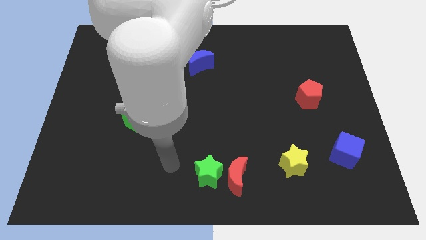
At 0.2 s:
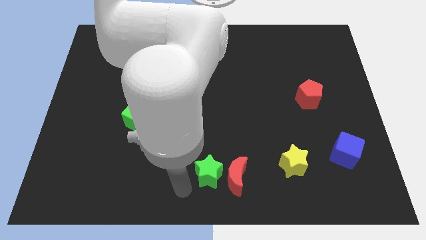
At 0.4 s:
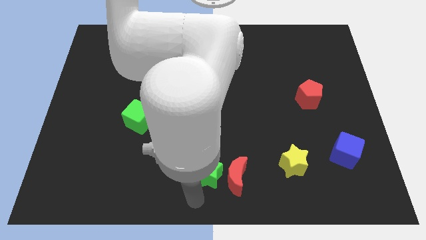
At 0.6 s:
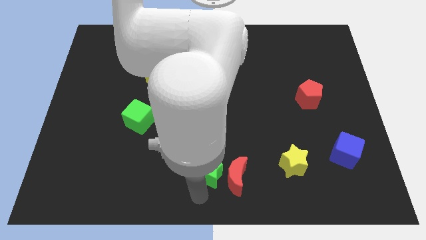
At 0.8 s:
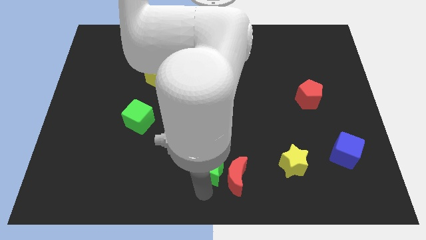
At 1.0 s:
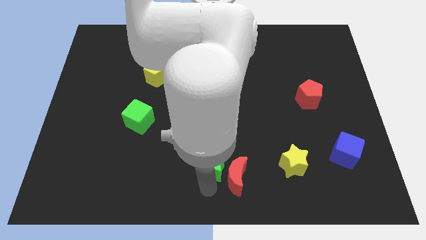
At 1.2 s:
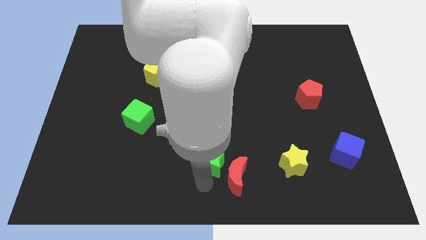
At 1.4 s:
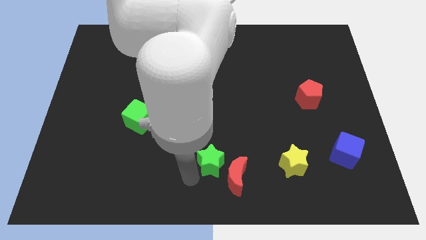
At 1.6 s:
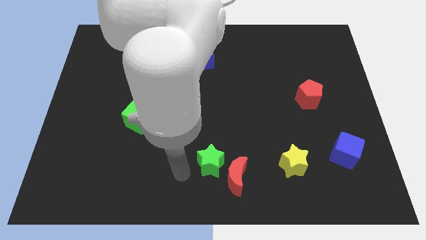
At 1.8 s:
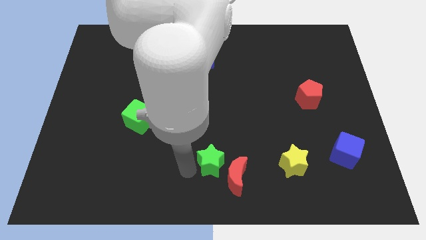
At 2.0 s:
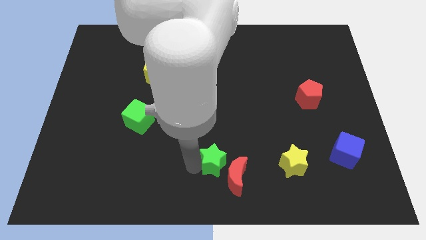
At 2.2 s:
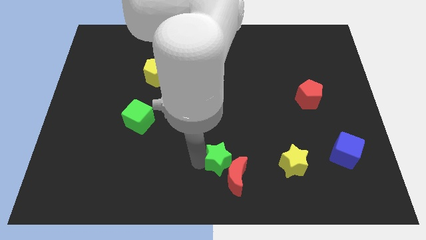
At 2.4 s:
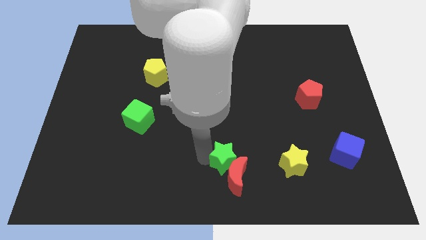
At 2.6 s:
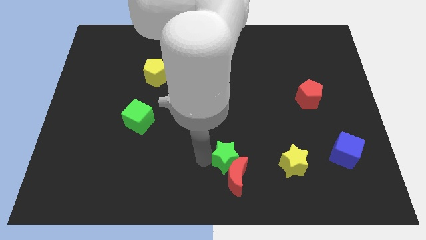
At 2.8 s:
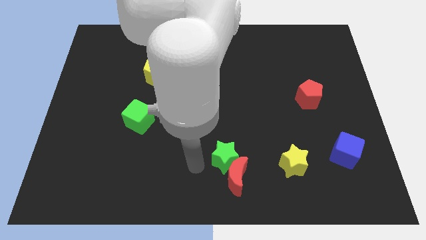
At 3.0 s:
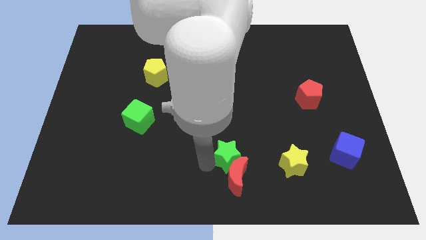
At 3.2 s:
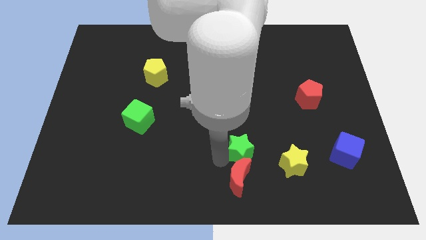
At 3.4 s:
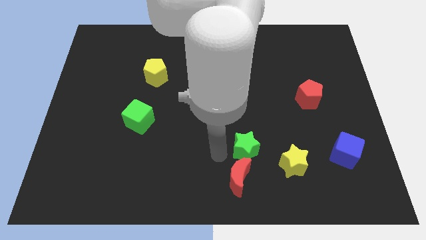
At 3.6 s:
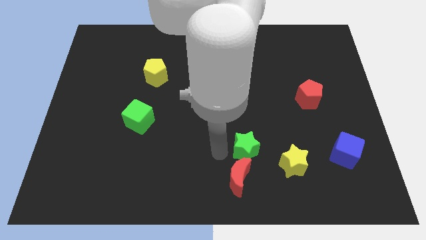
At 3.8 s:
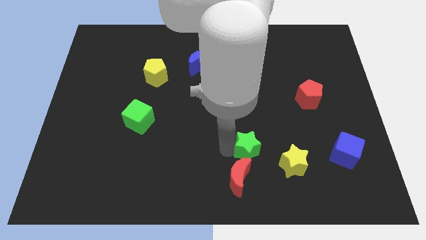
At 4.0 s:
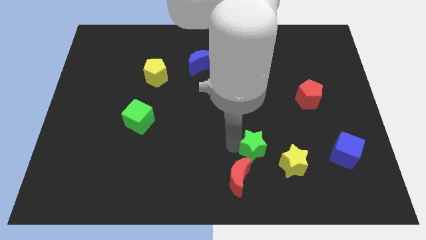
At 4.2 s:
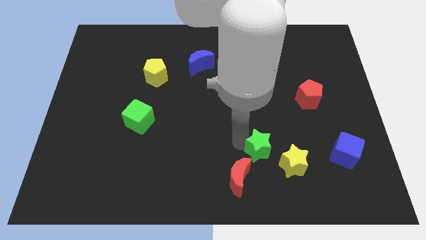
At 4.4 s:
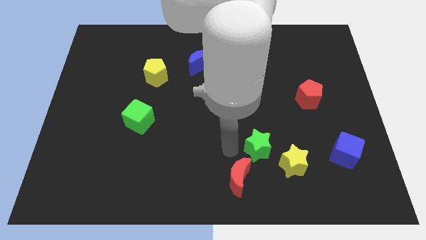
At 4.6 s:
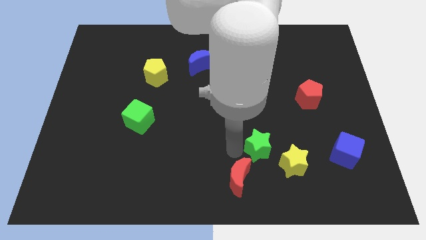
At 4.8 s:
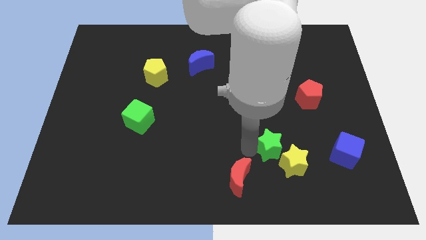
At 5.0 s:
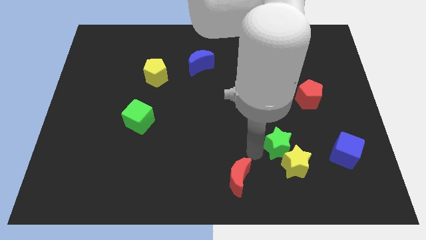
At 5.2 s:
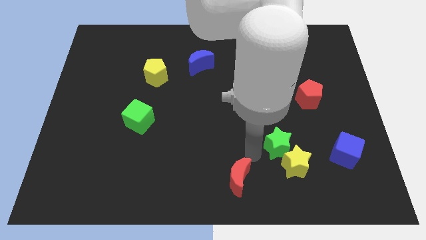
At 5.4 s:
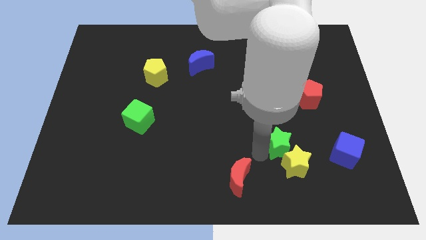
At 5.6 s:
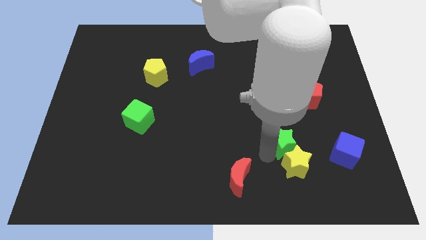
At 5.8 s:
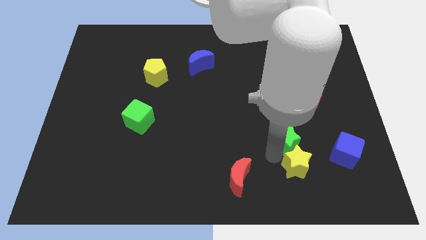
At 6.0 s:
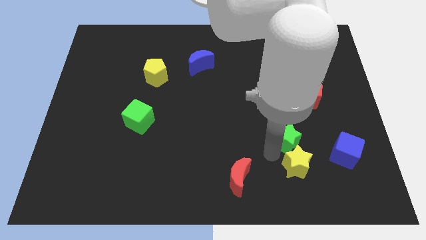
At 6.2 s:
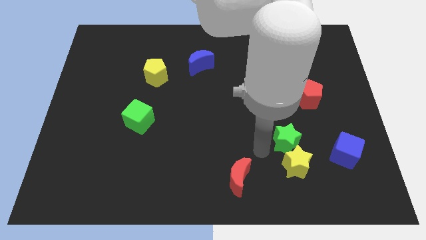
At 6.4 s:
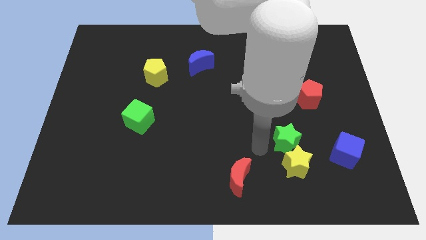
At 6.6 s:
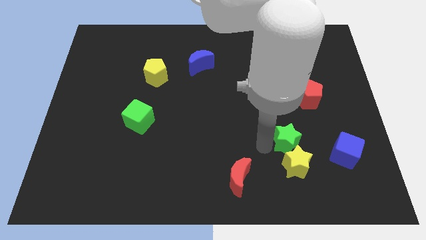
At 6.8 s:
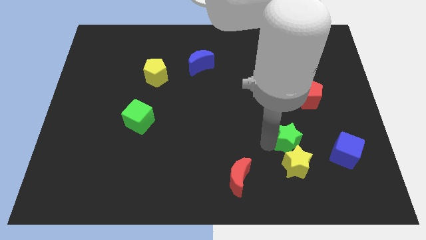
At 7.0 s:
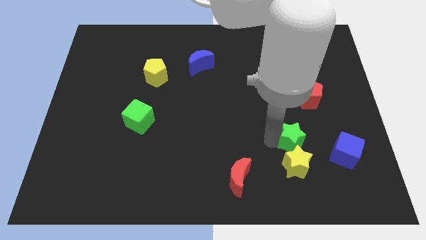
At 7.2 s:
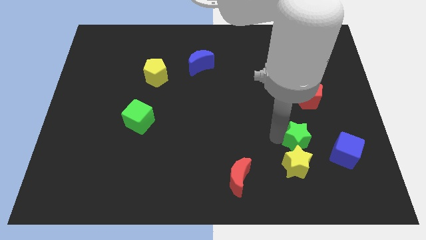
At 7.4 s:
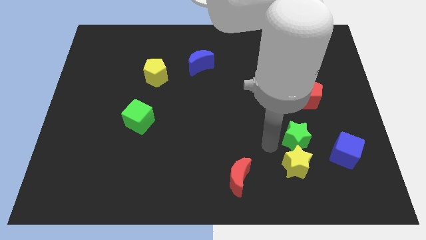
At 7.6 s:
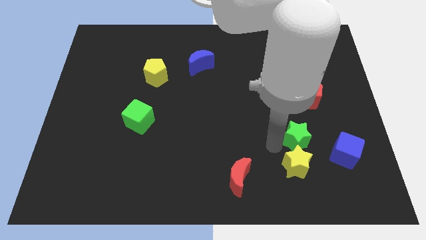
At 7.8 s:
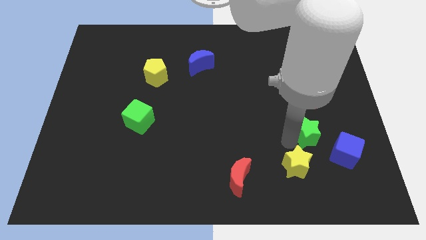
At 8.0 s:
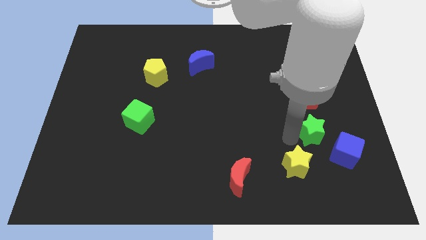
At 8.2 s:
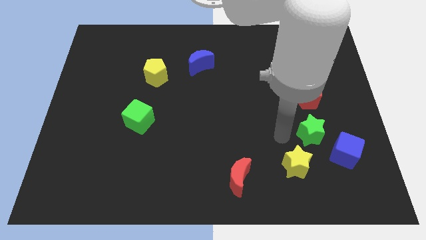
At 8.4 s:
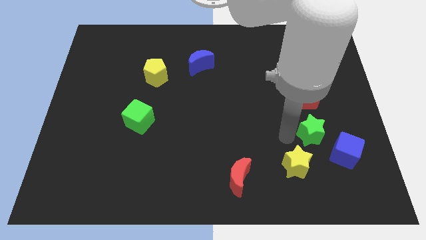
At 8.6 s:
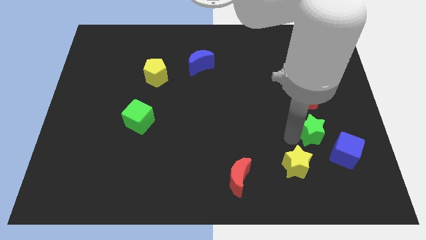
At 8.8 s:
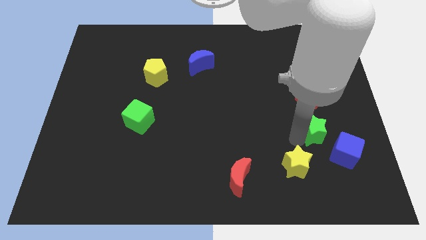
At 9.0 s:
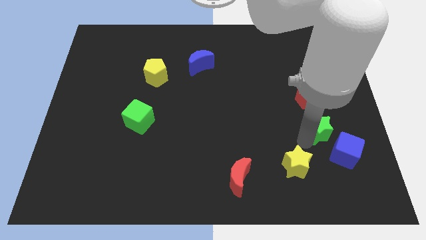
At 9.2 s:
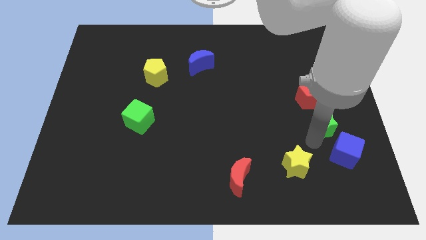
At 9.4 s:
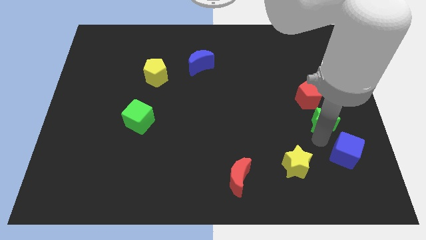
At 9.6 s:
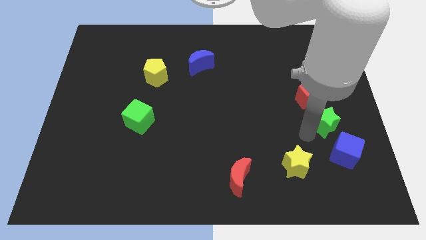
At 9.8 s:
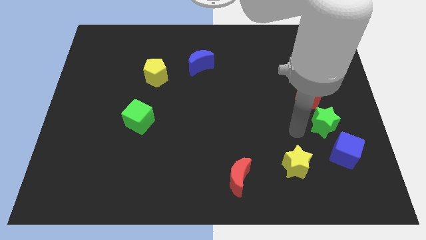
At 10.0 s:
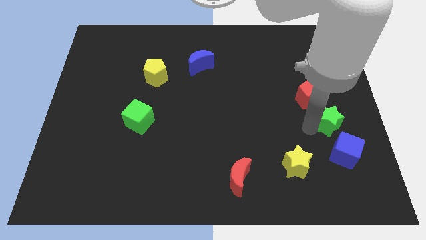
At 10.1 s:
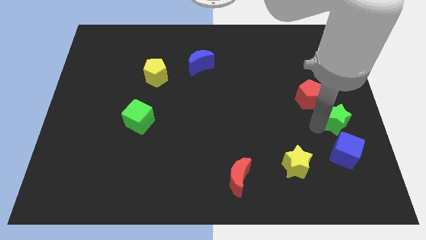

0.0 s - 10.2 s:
put the green star to the right side of the board
